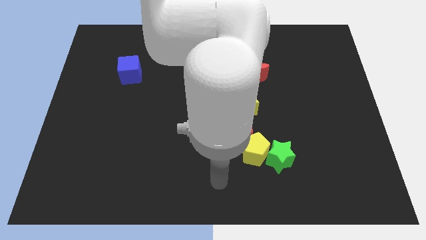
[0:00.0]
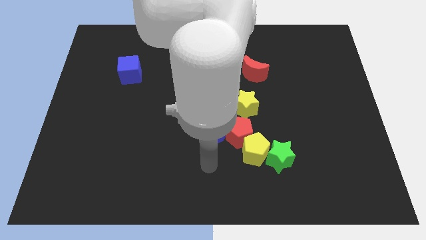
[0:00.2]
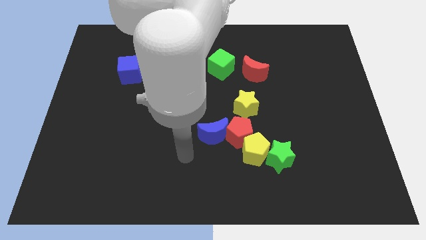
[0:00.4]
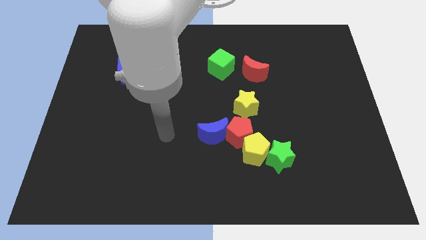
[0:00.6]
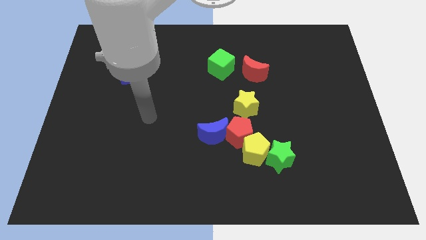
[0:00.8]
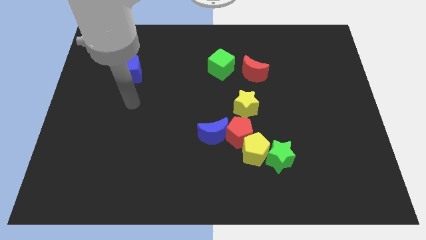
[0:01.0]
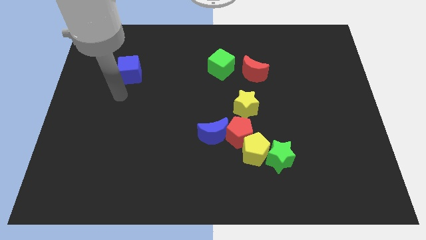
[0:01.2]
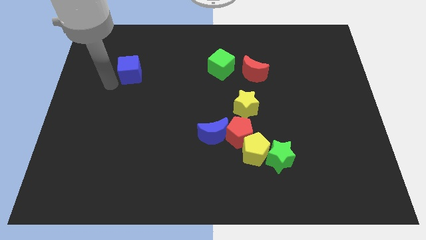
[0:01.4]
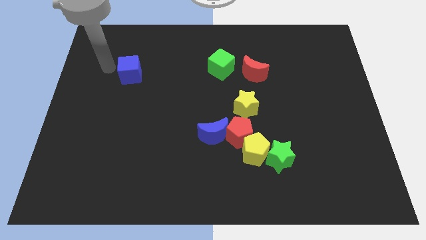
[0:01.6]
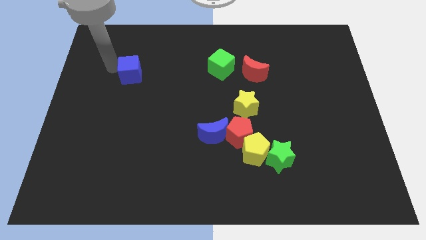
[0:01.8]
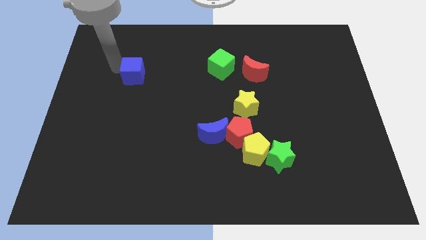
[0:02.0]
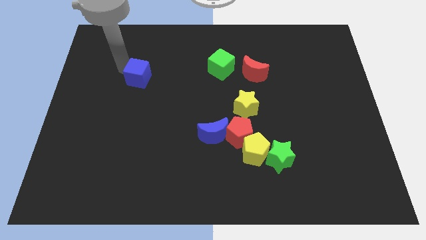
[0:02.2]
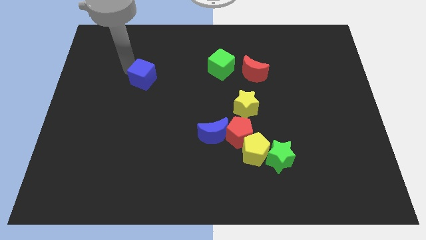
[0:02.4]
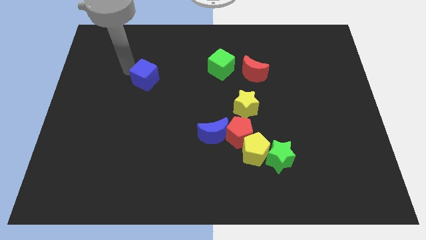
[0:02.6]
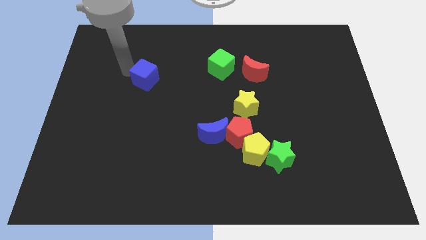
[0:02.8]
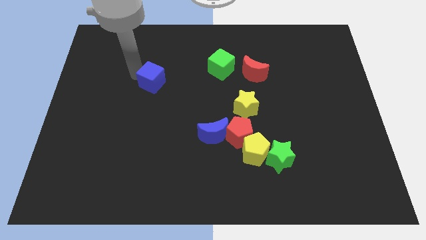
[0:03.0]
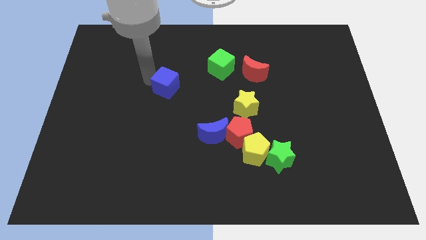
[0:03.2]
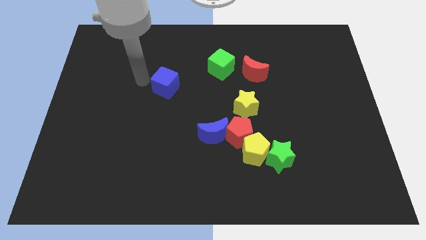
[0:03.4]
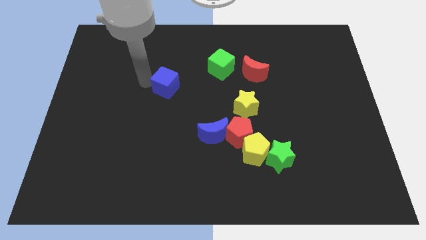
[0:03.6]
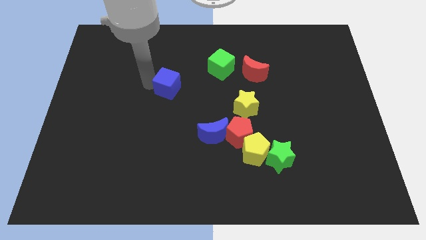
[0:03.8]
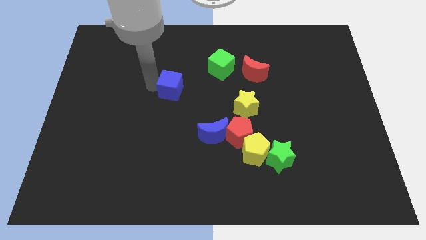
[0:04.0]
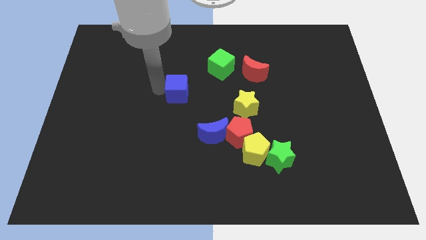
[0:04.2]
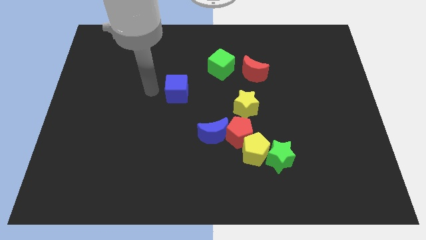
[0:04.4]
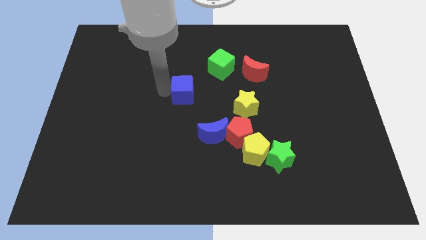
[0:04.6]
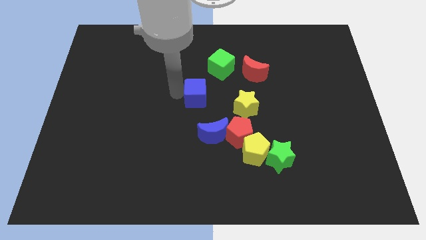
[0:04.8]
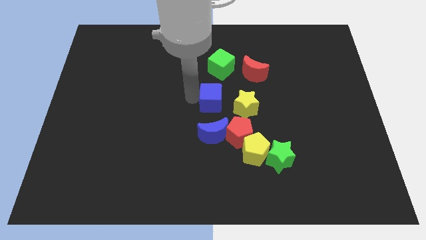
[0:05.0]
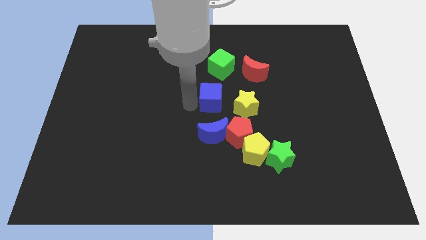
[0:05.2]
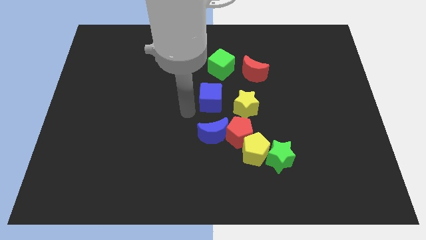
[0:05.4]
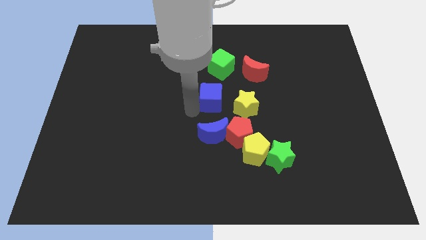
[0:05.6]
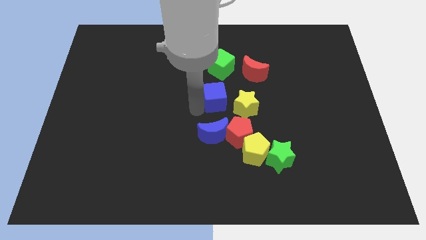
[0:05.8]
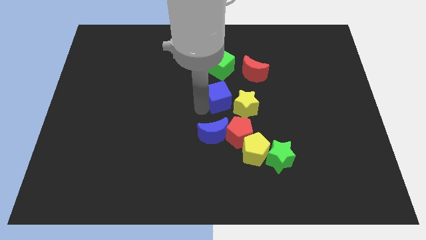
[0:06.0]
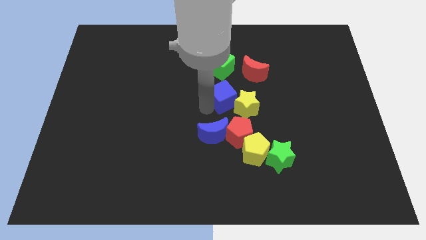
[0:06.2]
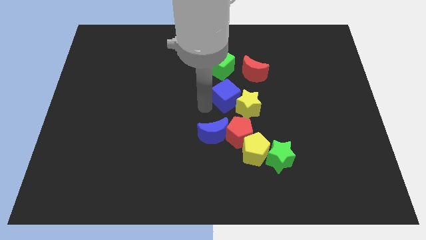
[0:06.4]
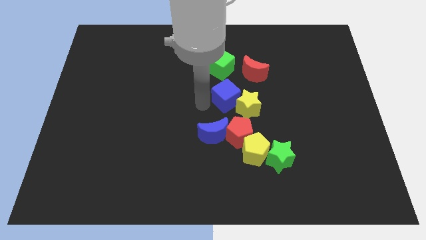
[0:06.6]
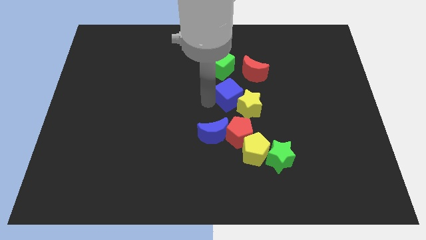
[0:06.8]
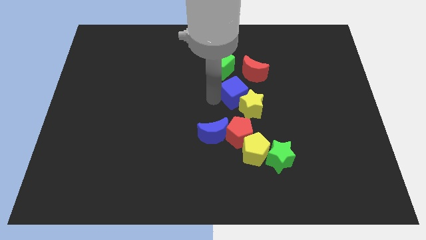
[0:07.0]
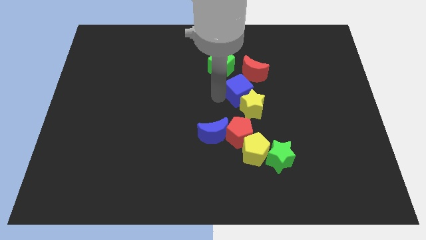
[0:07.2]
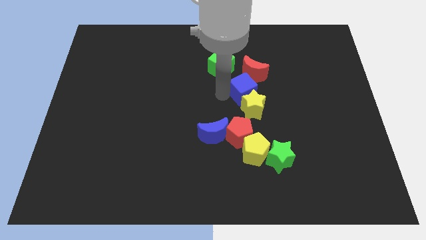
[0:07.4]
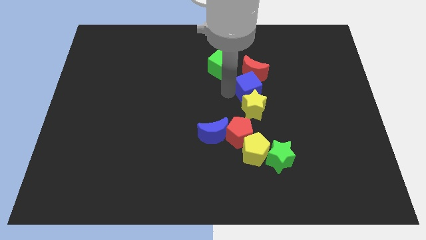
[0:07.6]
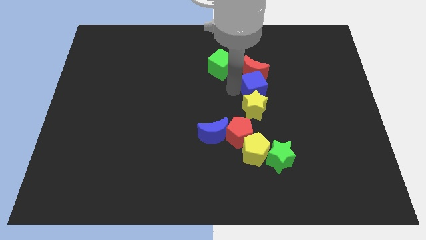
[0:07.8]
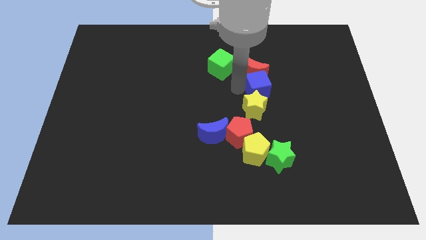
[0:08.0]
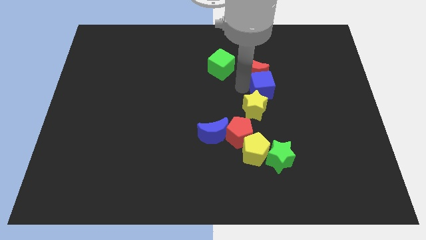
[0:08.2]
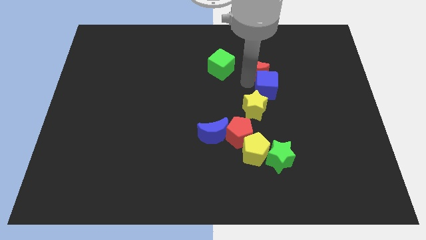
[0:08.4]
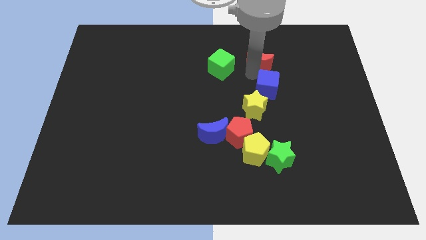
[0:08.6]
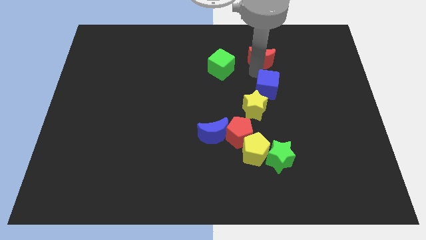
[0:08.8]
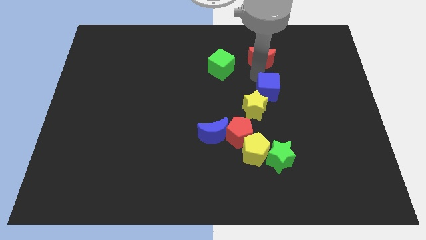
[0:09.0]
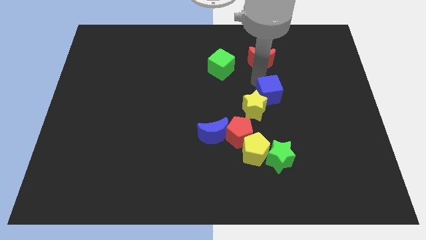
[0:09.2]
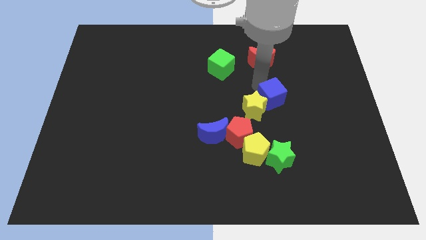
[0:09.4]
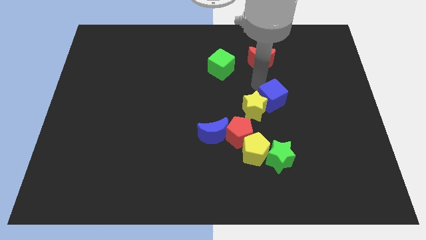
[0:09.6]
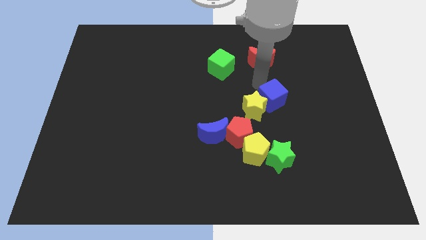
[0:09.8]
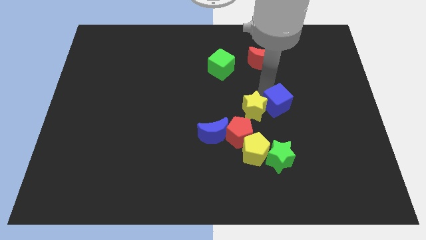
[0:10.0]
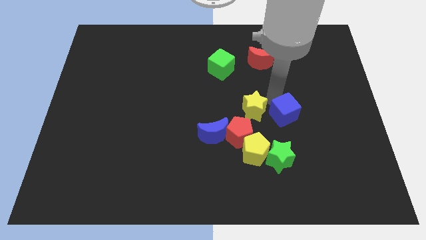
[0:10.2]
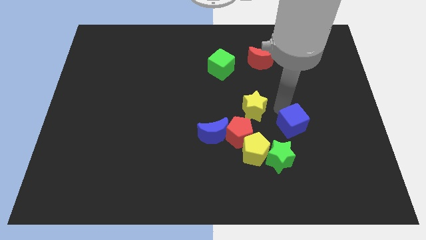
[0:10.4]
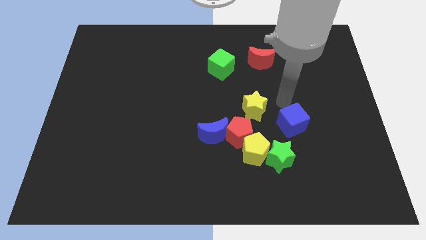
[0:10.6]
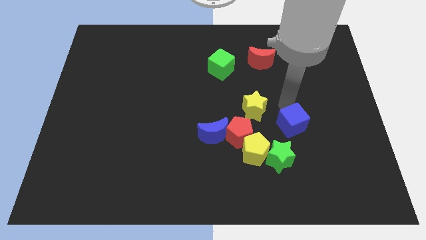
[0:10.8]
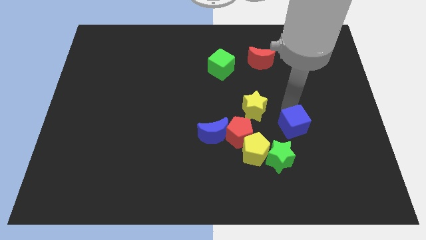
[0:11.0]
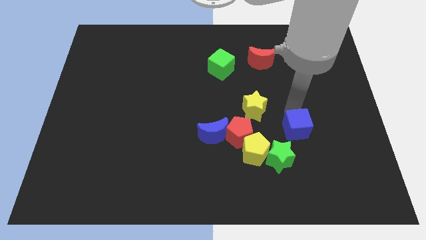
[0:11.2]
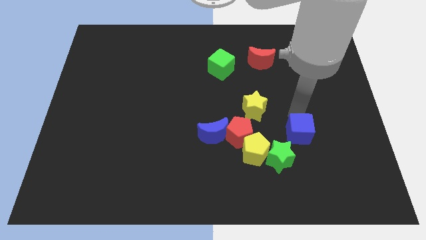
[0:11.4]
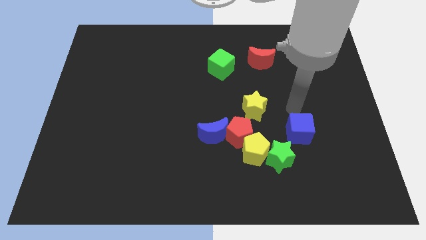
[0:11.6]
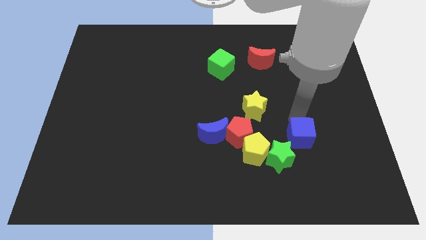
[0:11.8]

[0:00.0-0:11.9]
slide the blue cube to the right side of the yellow pentagon

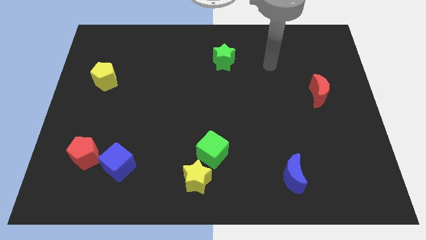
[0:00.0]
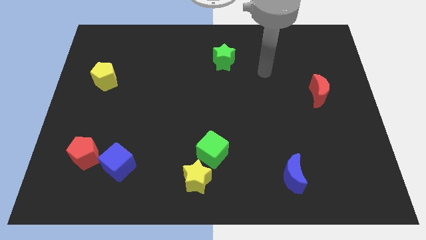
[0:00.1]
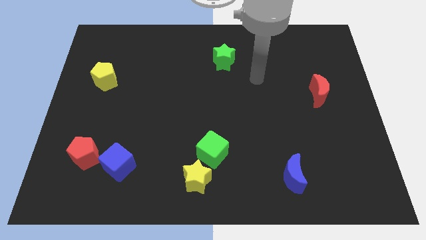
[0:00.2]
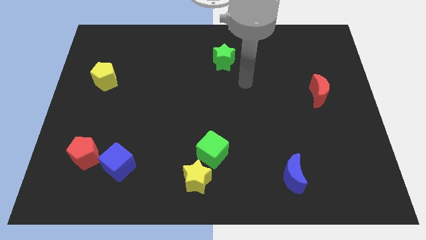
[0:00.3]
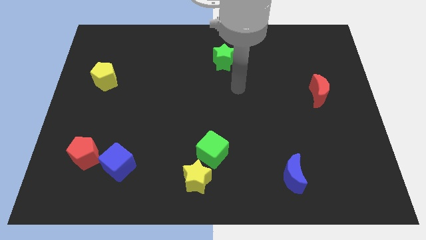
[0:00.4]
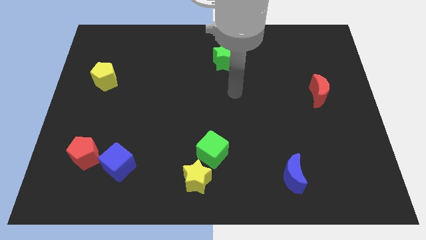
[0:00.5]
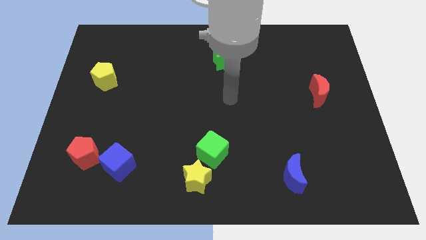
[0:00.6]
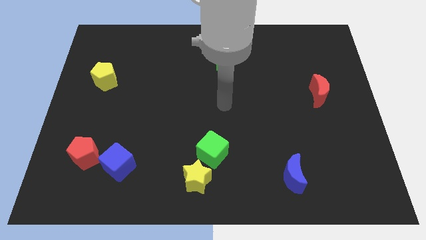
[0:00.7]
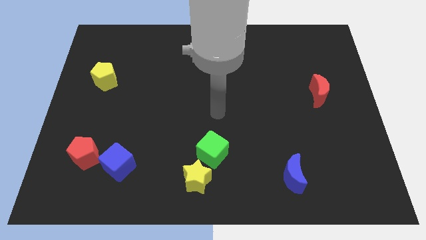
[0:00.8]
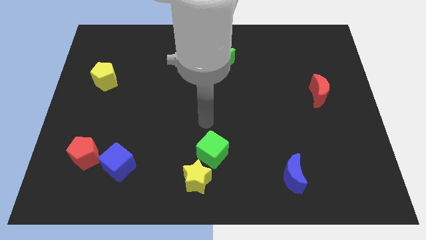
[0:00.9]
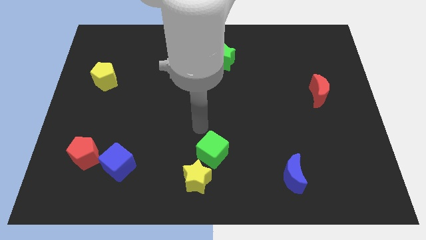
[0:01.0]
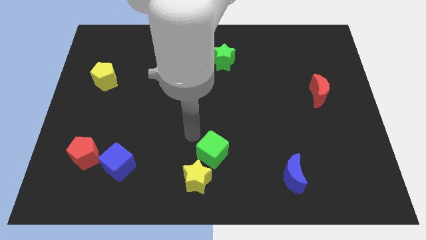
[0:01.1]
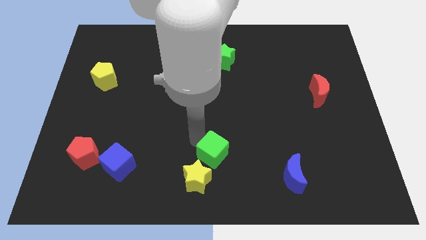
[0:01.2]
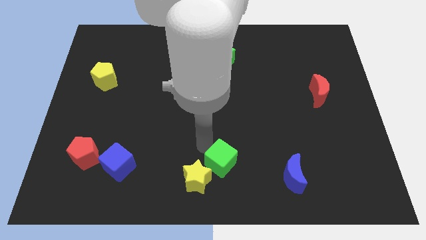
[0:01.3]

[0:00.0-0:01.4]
put the green cube left of the blue moon
